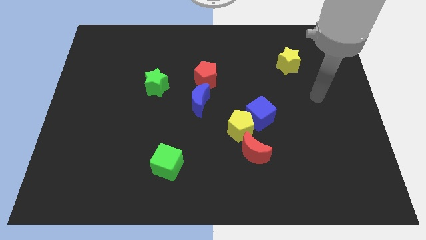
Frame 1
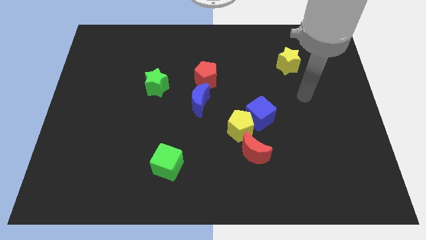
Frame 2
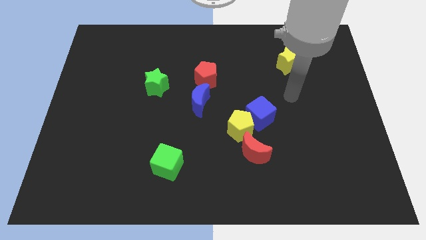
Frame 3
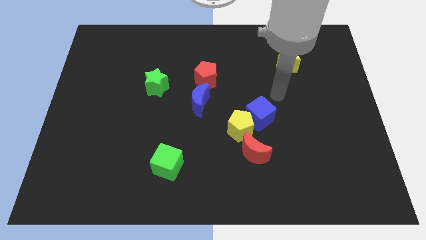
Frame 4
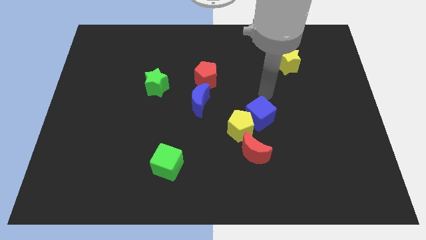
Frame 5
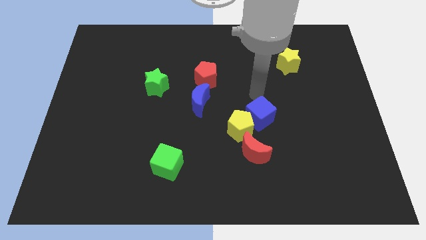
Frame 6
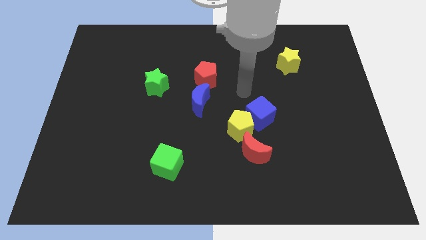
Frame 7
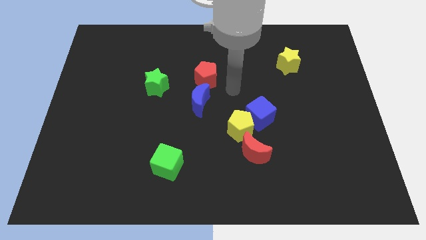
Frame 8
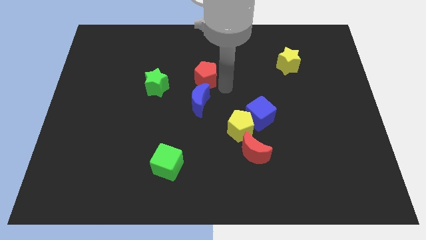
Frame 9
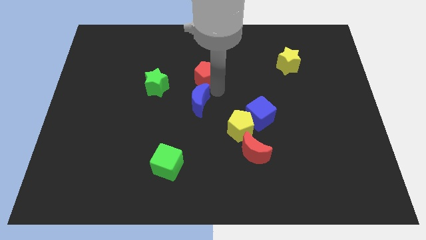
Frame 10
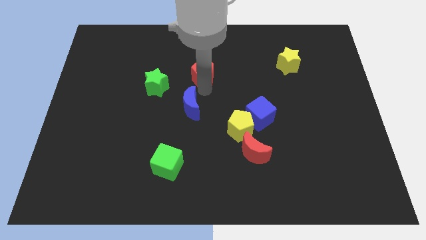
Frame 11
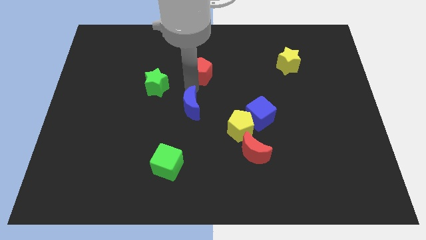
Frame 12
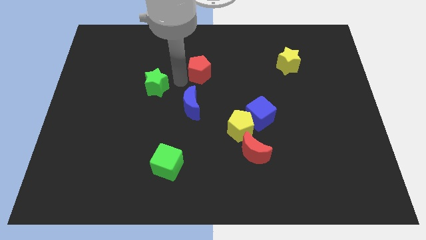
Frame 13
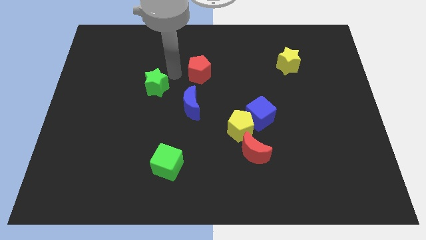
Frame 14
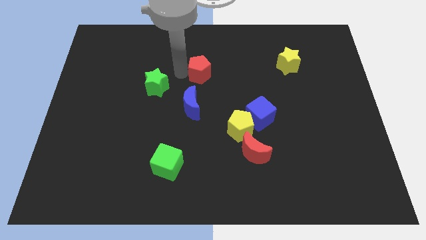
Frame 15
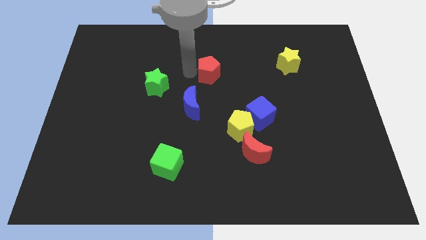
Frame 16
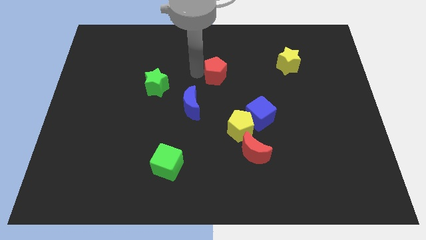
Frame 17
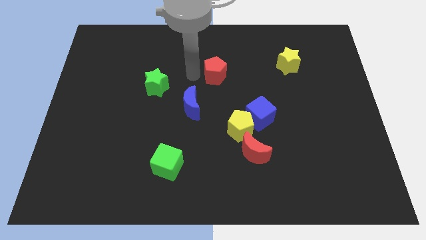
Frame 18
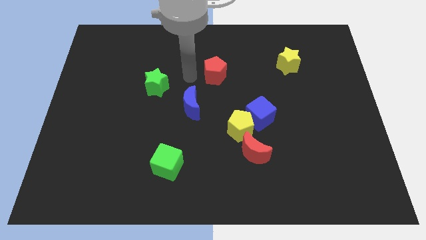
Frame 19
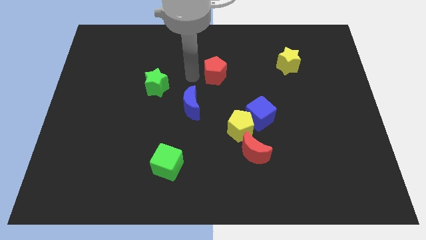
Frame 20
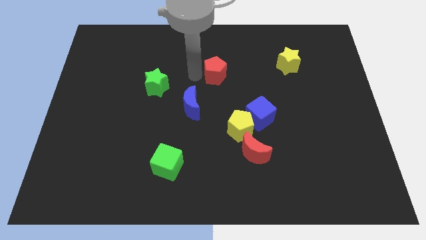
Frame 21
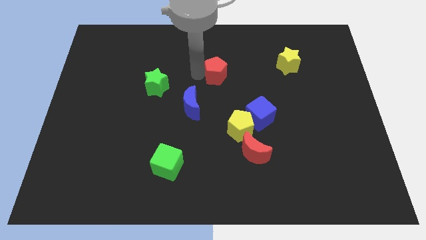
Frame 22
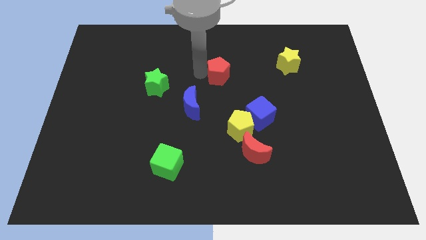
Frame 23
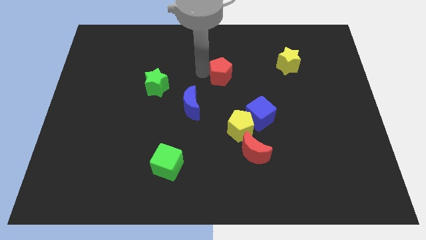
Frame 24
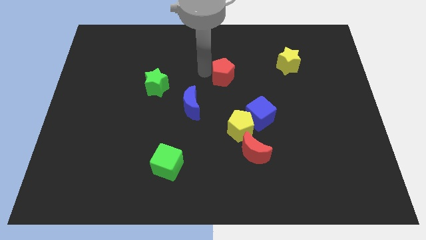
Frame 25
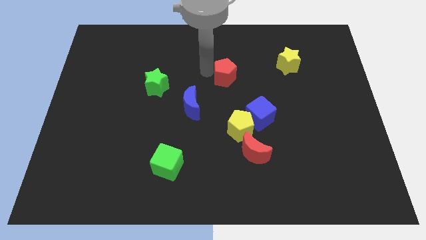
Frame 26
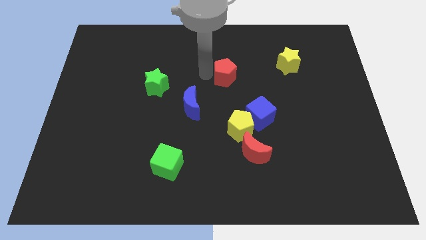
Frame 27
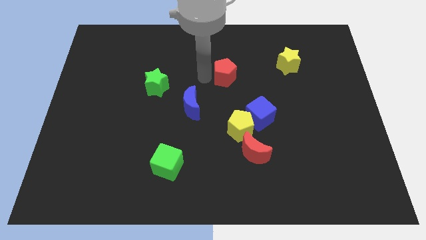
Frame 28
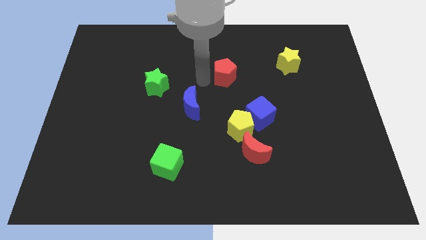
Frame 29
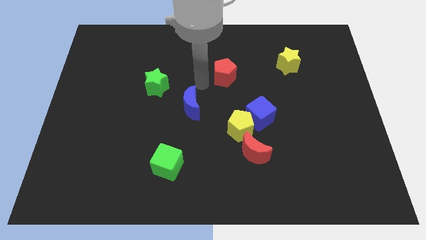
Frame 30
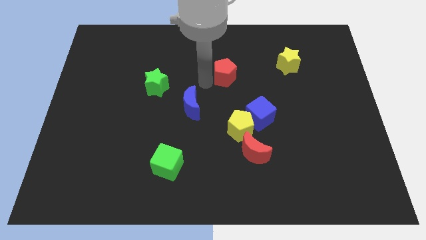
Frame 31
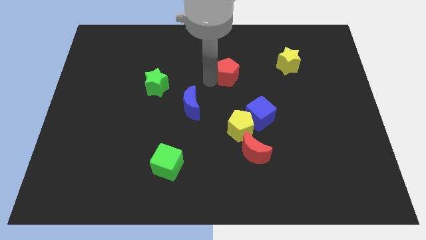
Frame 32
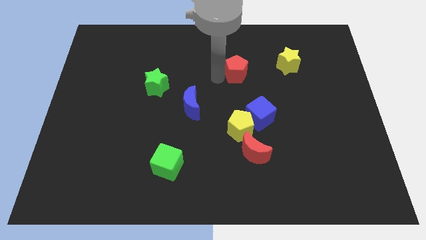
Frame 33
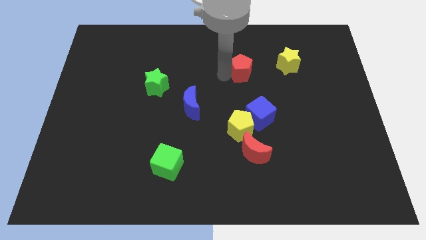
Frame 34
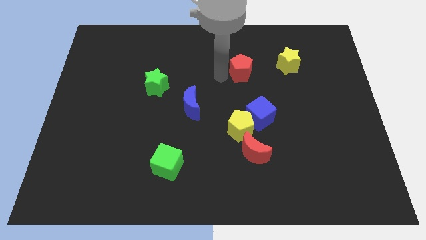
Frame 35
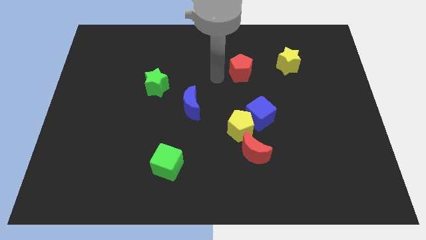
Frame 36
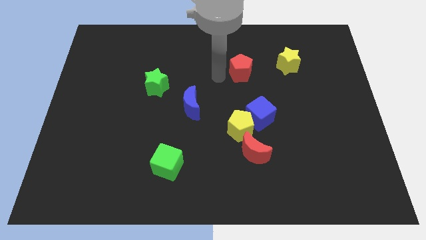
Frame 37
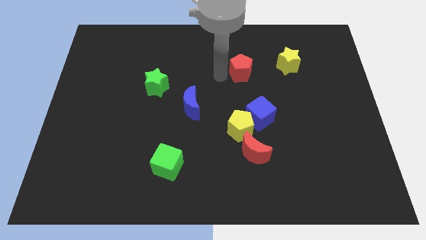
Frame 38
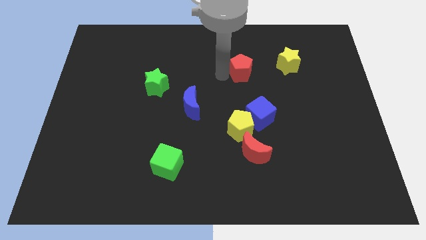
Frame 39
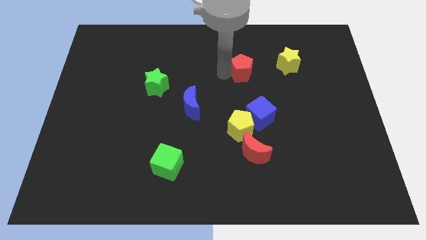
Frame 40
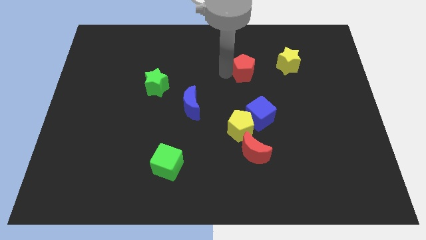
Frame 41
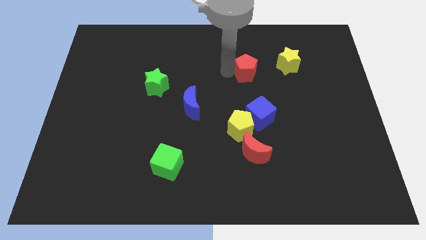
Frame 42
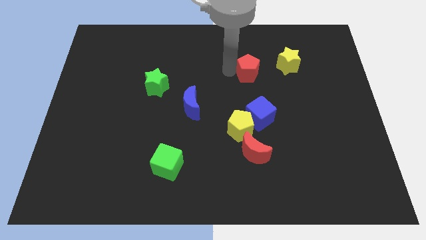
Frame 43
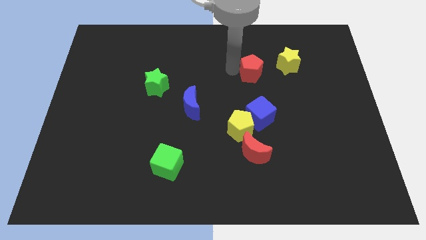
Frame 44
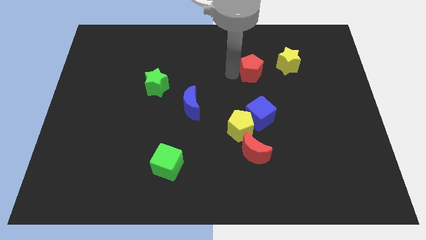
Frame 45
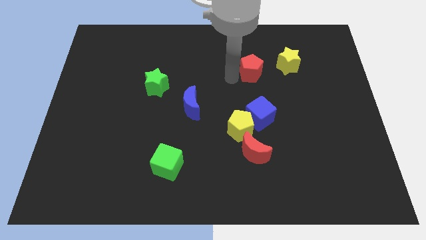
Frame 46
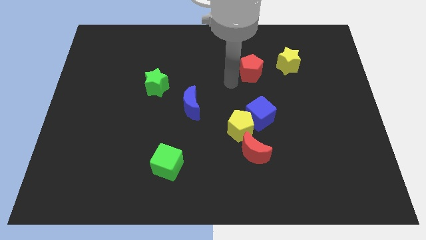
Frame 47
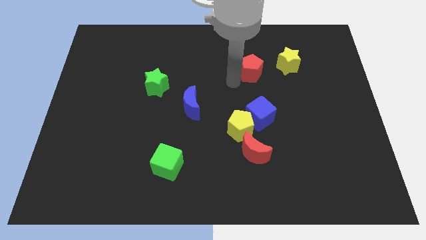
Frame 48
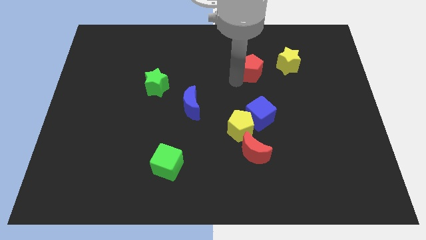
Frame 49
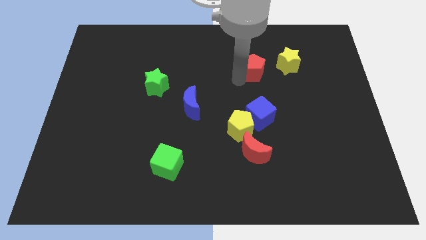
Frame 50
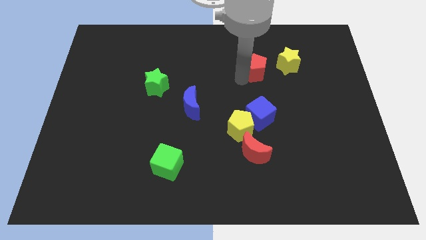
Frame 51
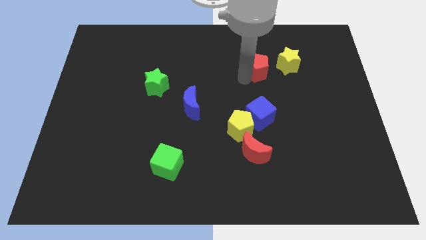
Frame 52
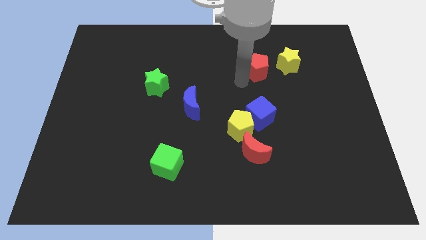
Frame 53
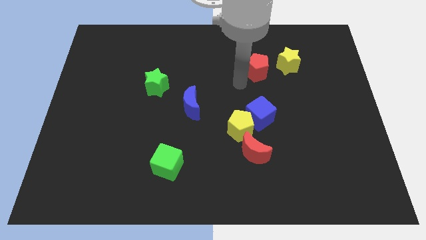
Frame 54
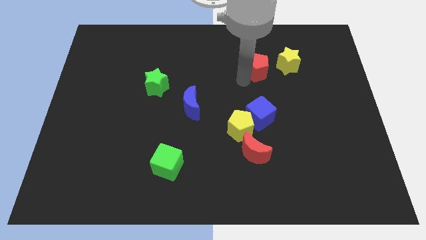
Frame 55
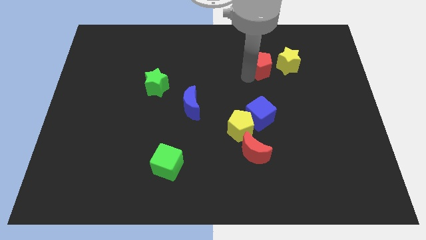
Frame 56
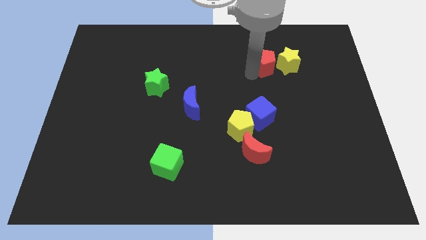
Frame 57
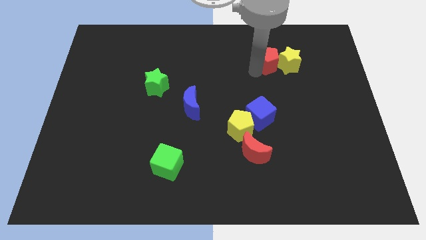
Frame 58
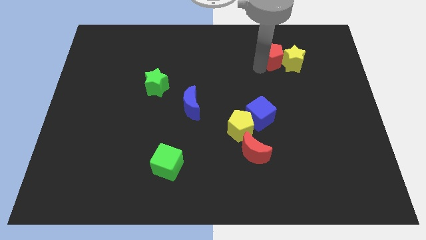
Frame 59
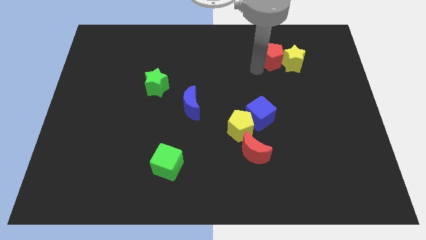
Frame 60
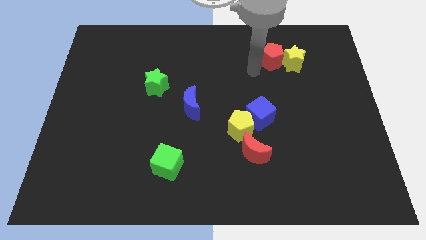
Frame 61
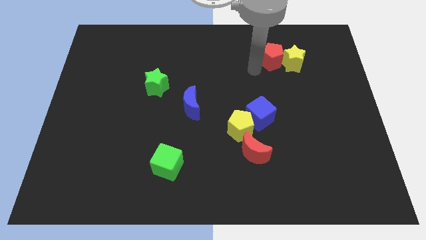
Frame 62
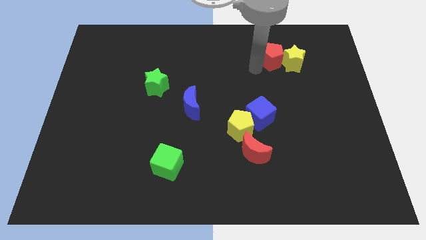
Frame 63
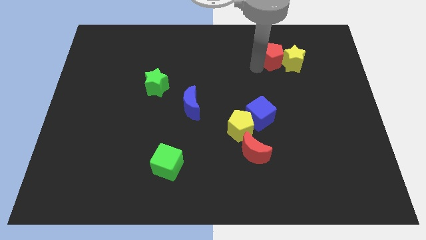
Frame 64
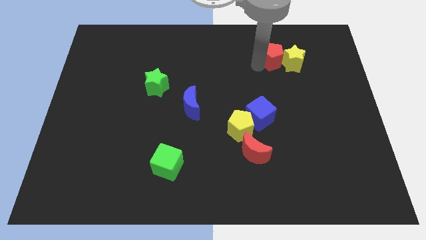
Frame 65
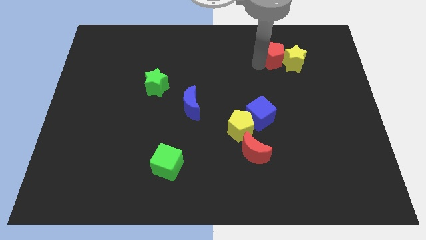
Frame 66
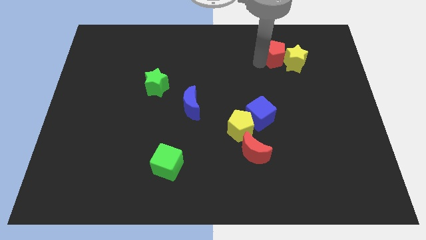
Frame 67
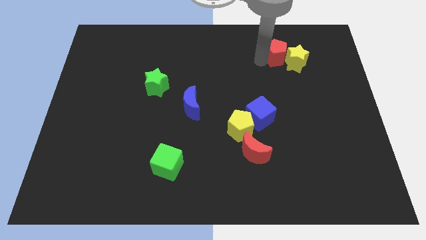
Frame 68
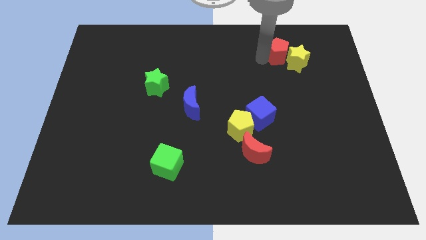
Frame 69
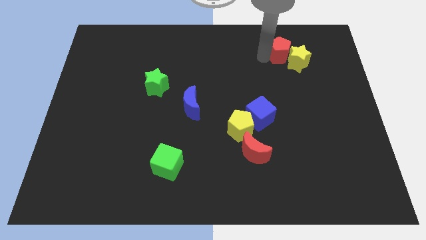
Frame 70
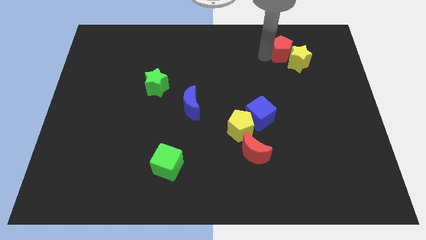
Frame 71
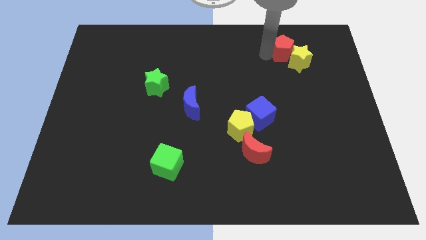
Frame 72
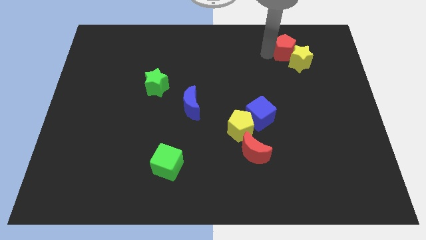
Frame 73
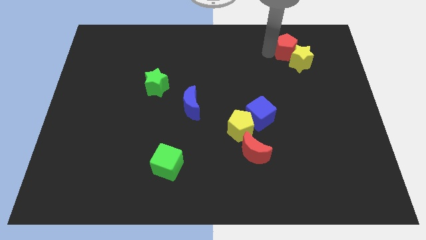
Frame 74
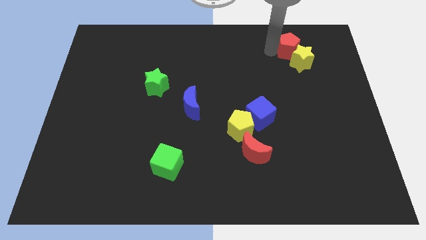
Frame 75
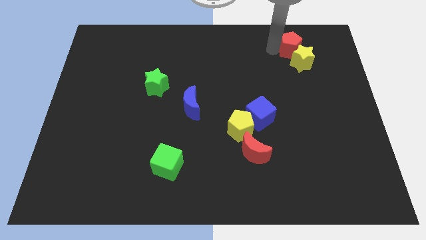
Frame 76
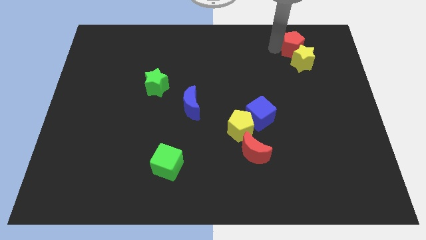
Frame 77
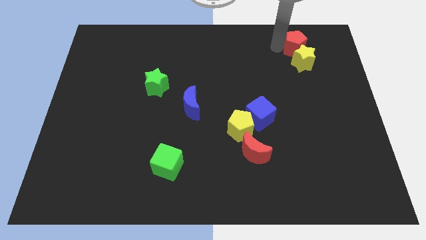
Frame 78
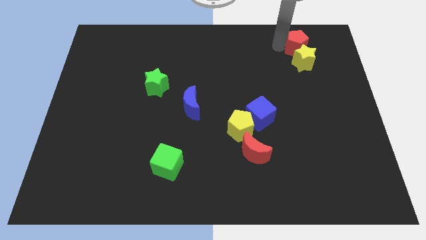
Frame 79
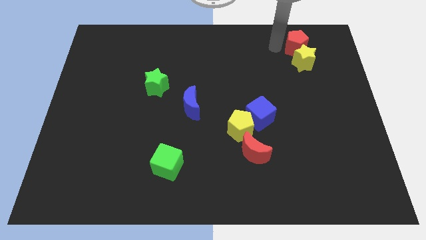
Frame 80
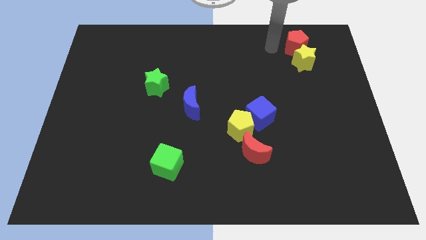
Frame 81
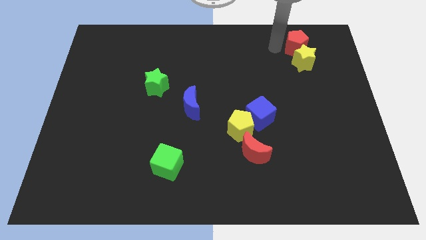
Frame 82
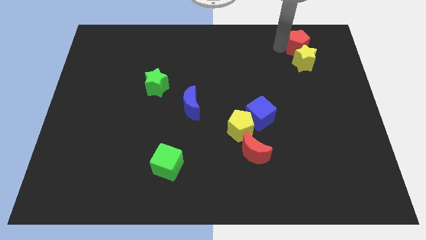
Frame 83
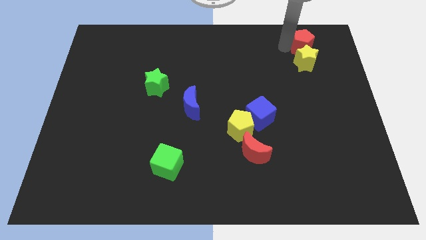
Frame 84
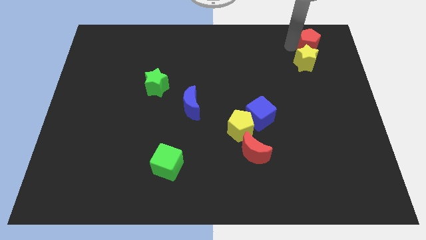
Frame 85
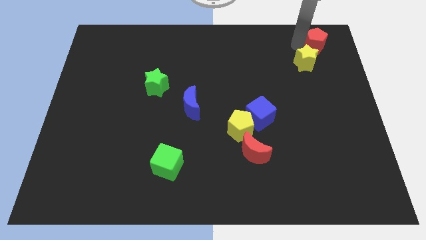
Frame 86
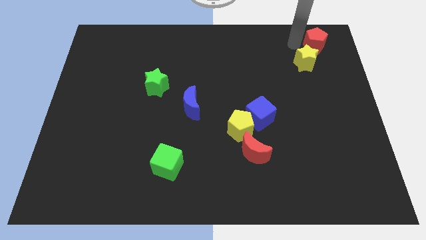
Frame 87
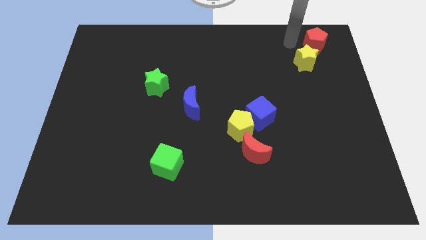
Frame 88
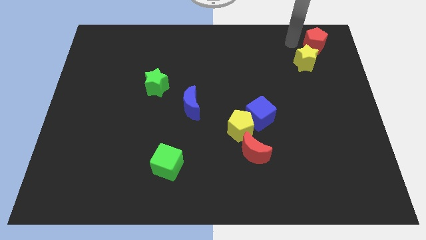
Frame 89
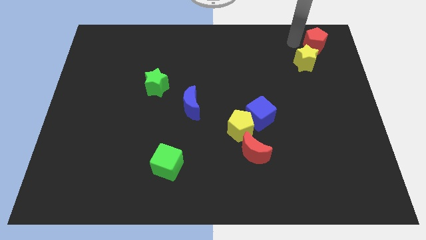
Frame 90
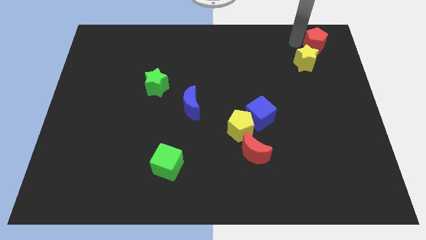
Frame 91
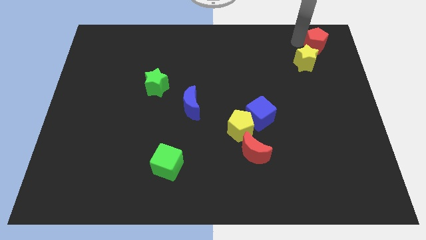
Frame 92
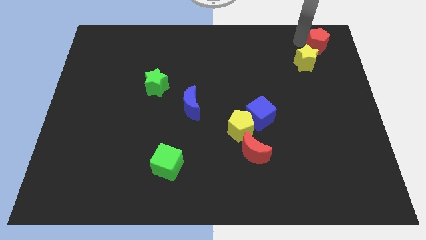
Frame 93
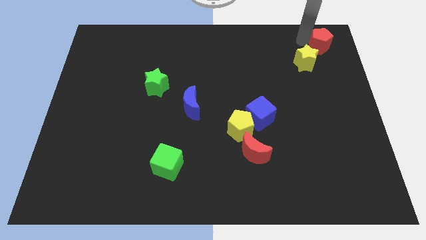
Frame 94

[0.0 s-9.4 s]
put the red pentagon to the upper right corner
